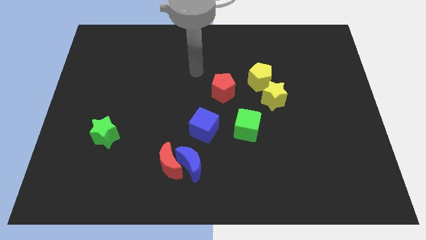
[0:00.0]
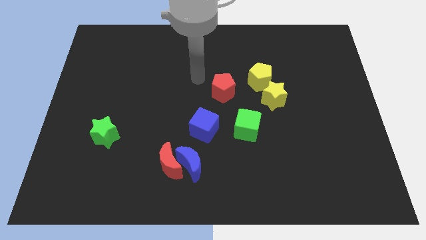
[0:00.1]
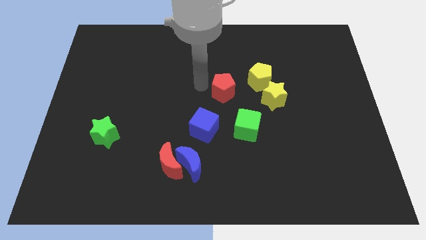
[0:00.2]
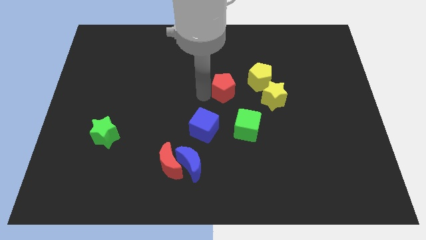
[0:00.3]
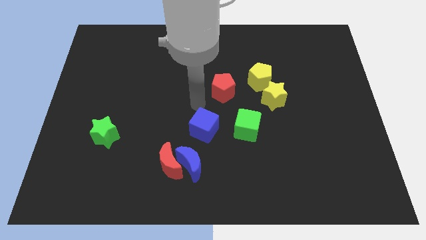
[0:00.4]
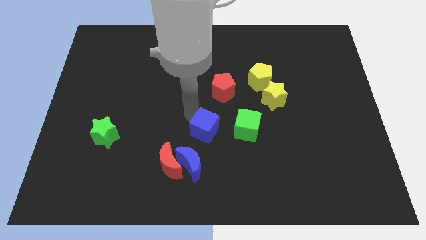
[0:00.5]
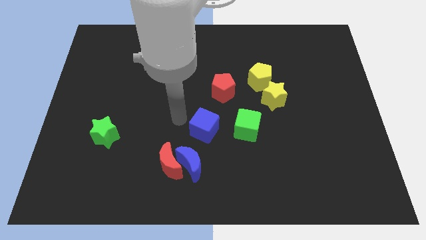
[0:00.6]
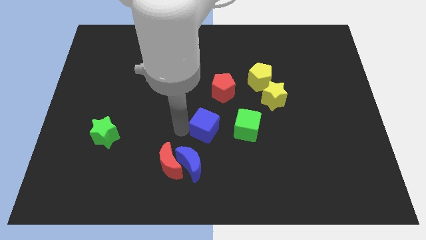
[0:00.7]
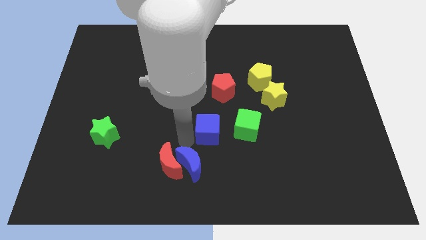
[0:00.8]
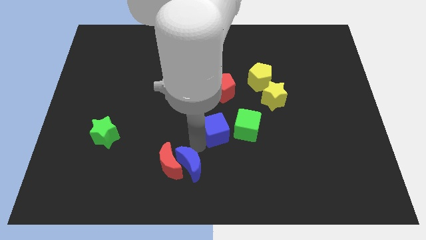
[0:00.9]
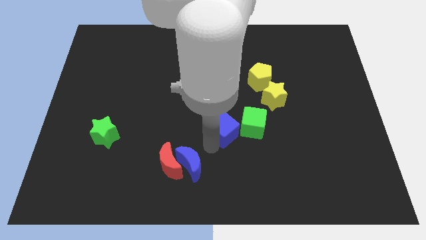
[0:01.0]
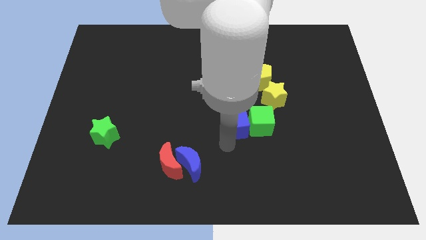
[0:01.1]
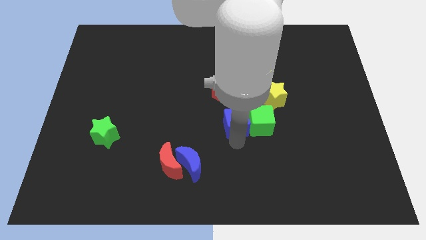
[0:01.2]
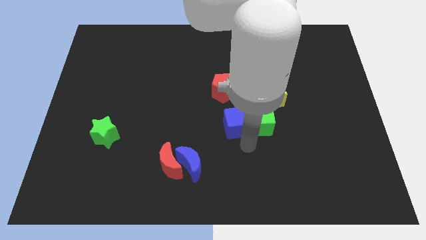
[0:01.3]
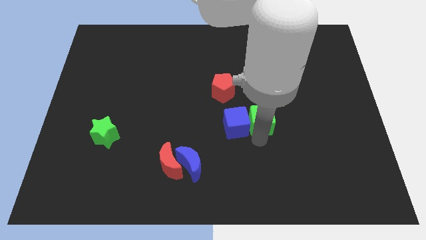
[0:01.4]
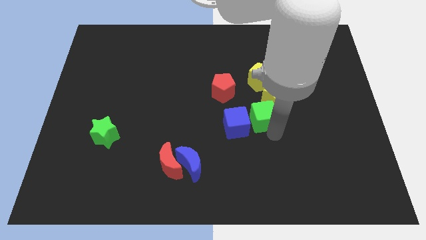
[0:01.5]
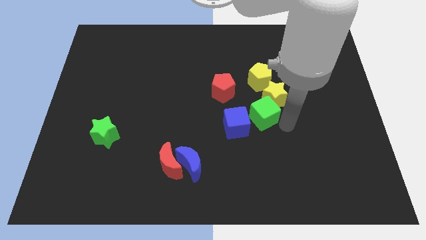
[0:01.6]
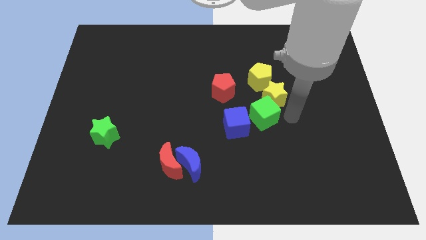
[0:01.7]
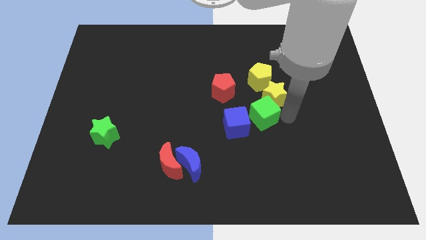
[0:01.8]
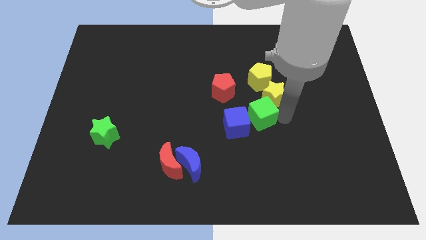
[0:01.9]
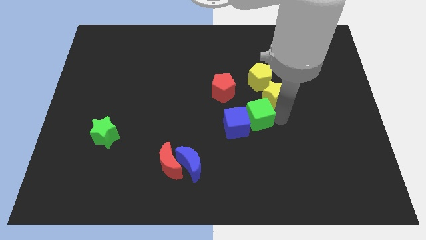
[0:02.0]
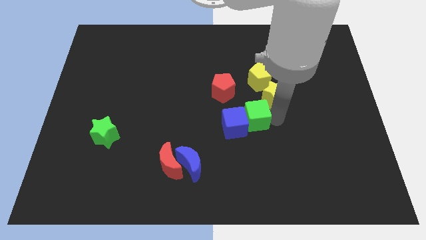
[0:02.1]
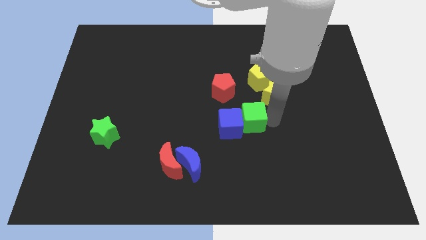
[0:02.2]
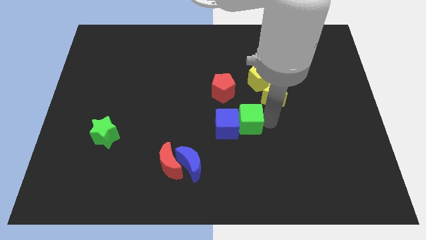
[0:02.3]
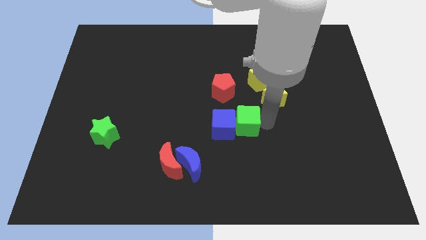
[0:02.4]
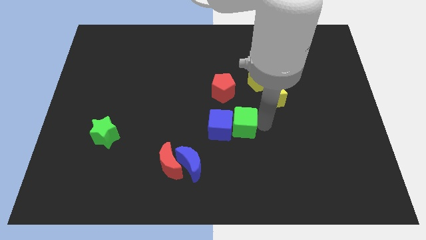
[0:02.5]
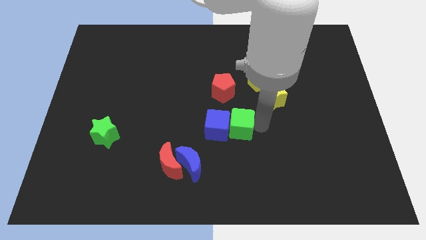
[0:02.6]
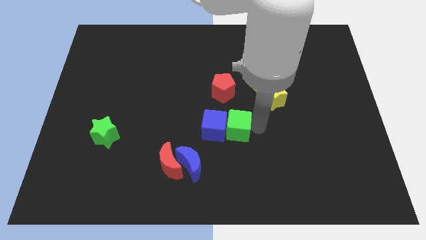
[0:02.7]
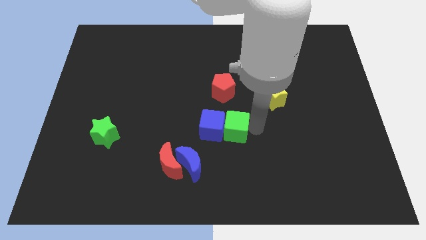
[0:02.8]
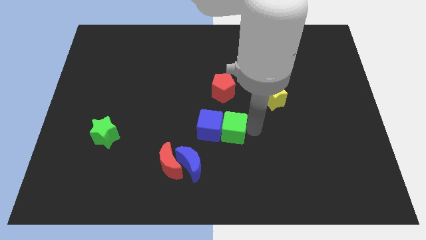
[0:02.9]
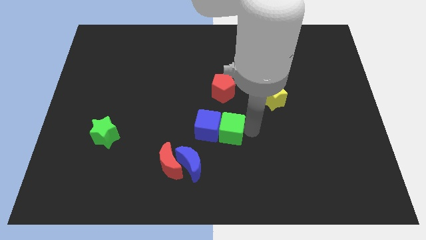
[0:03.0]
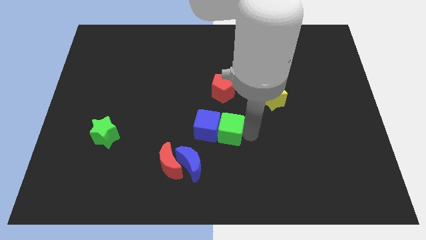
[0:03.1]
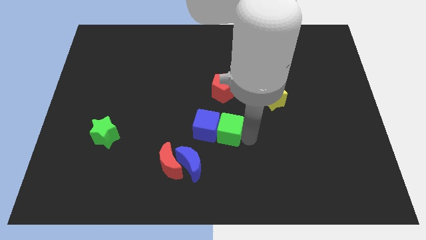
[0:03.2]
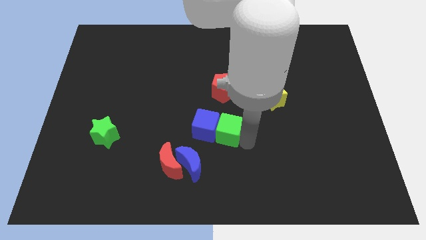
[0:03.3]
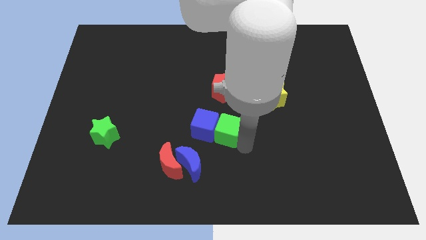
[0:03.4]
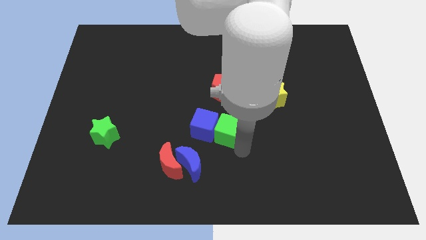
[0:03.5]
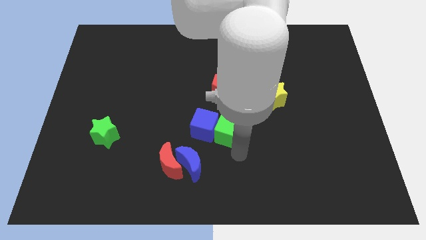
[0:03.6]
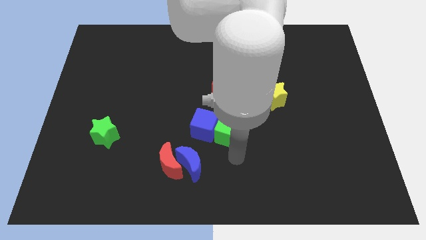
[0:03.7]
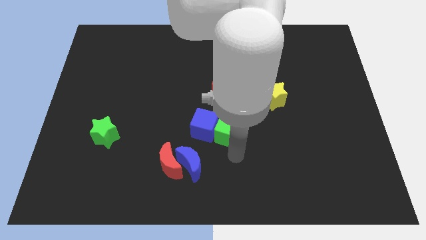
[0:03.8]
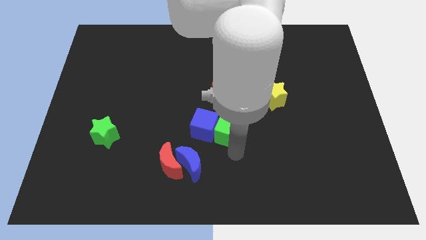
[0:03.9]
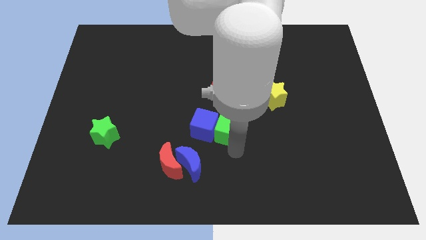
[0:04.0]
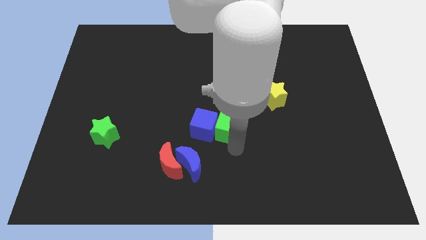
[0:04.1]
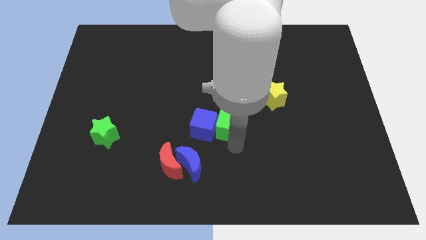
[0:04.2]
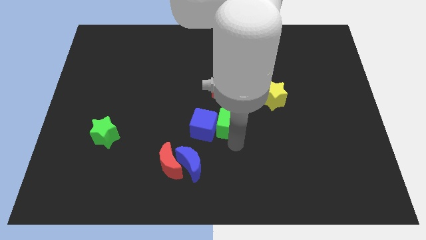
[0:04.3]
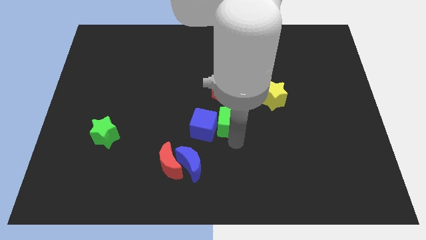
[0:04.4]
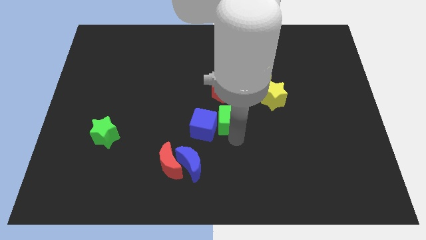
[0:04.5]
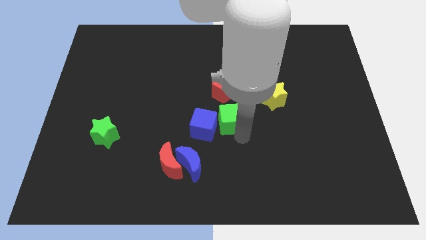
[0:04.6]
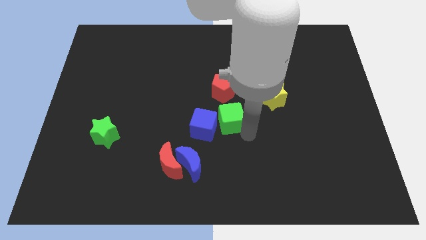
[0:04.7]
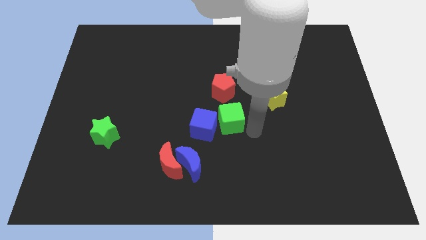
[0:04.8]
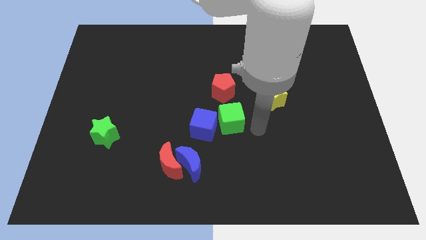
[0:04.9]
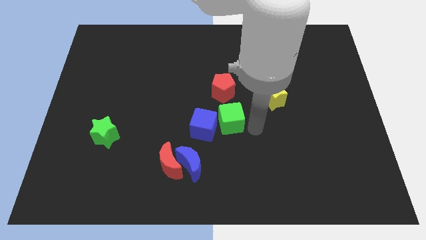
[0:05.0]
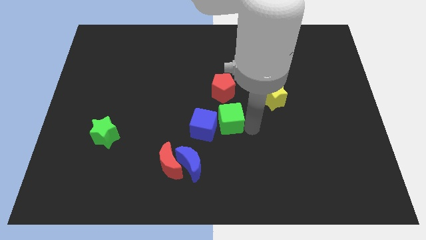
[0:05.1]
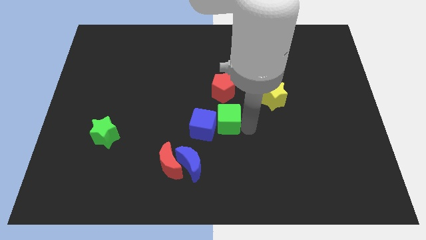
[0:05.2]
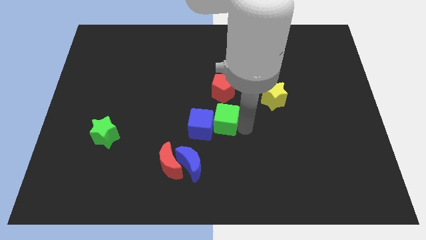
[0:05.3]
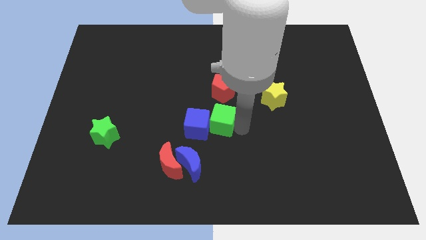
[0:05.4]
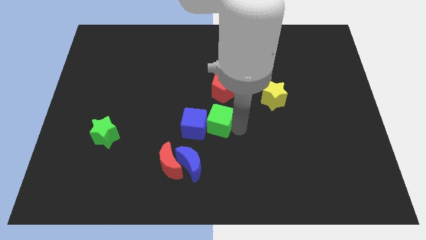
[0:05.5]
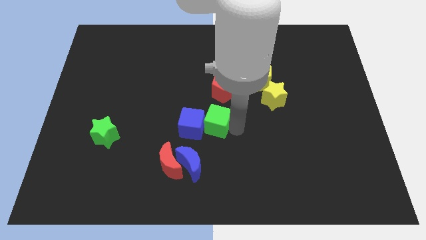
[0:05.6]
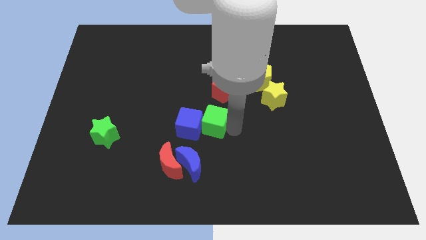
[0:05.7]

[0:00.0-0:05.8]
slide the green cube a little bit left

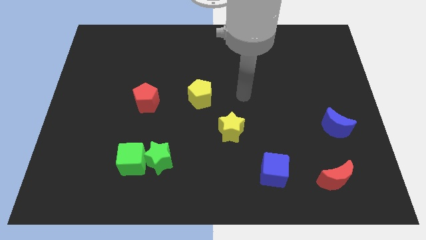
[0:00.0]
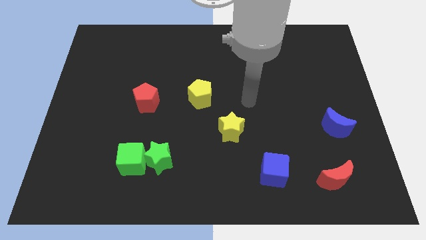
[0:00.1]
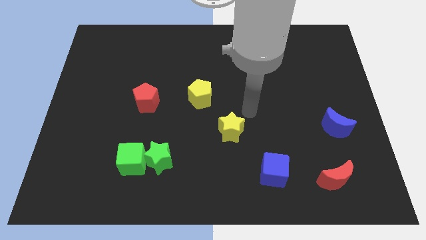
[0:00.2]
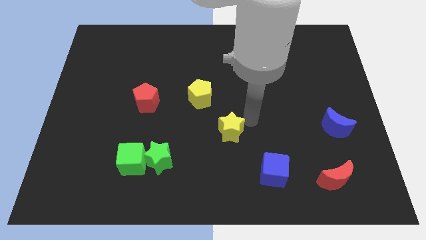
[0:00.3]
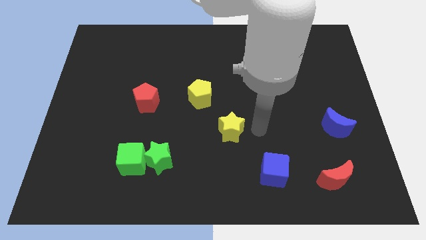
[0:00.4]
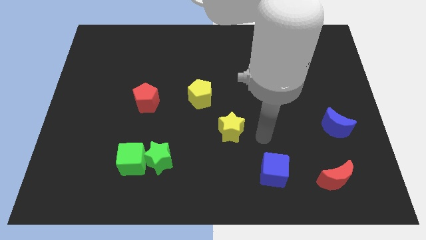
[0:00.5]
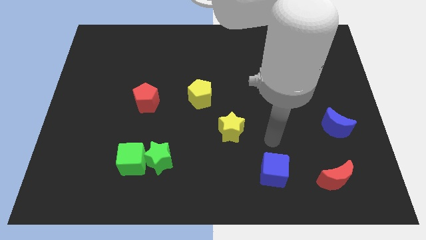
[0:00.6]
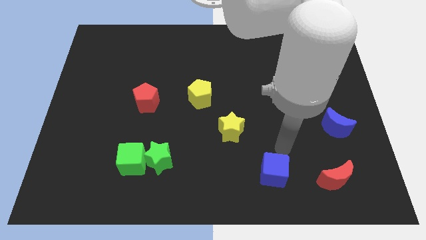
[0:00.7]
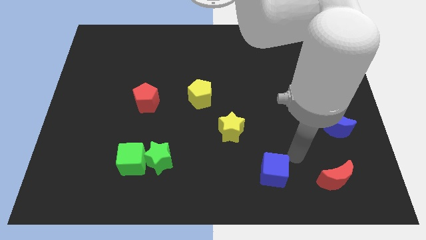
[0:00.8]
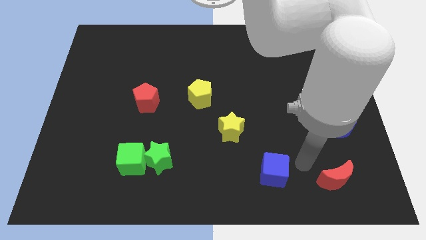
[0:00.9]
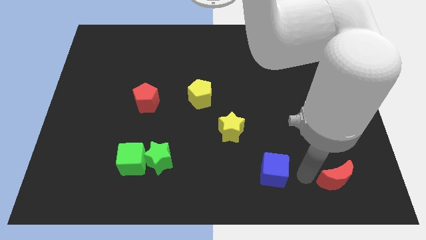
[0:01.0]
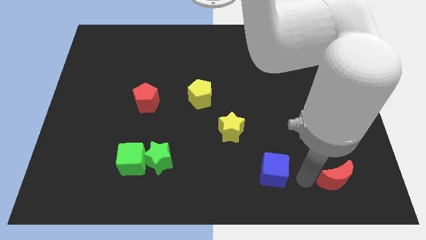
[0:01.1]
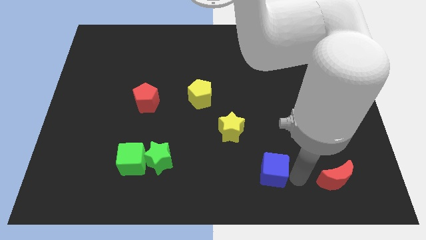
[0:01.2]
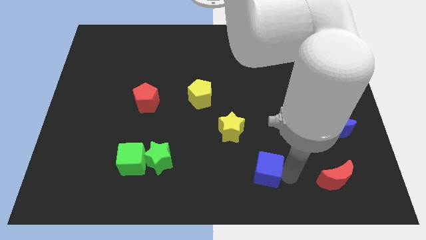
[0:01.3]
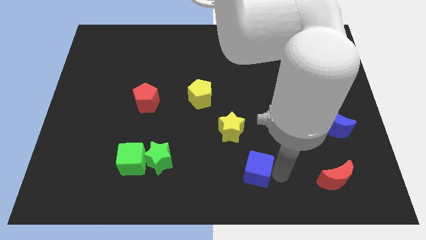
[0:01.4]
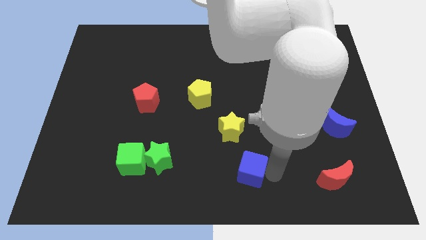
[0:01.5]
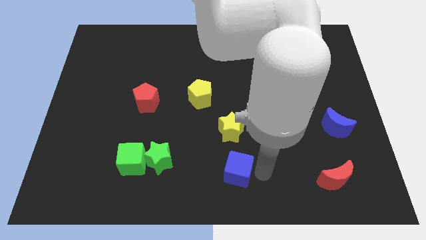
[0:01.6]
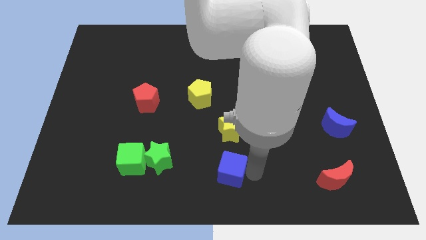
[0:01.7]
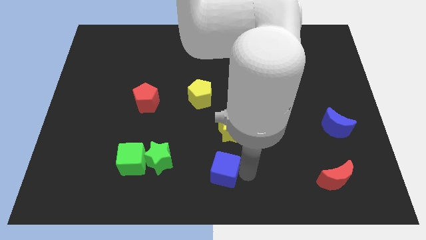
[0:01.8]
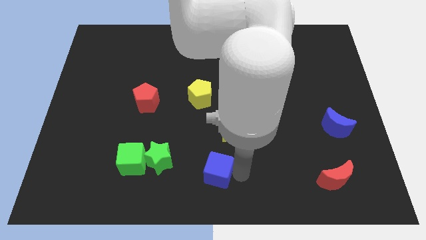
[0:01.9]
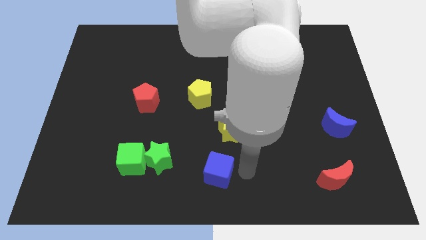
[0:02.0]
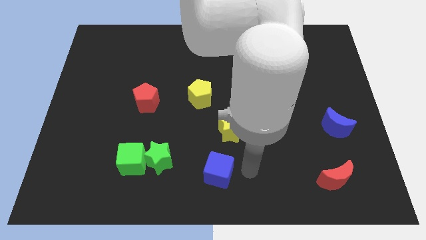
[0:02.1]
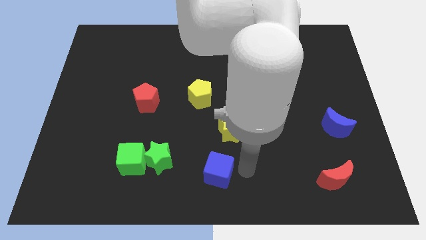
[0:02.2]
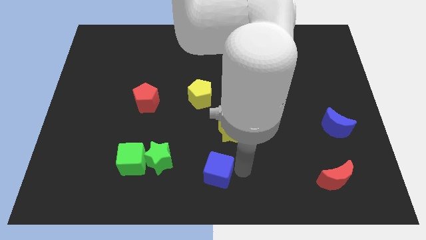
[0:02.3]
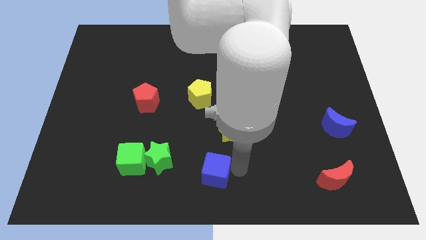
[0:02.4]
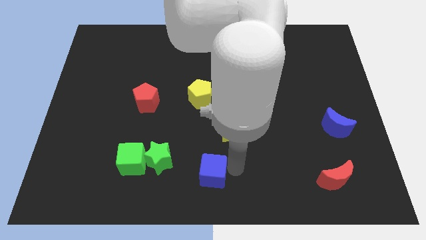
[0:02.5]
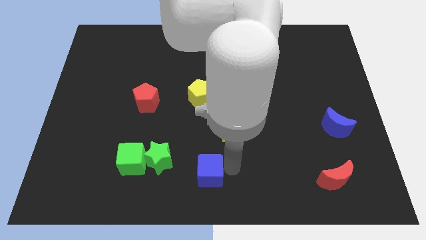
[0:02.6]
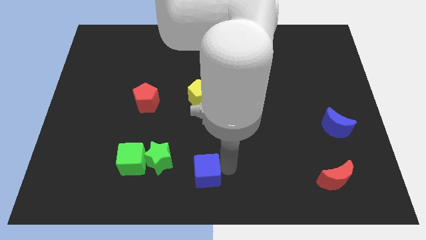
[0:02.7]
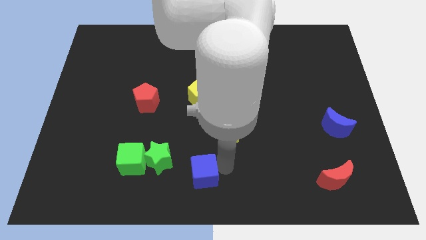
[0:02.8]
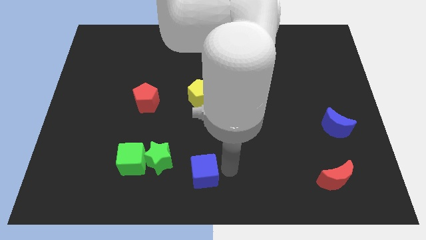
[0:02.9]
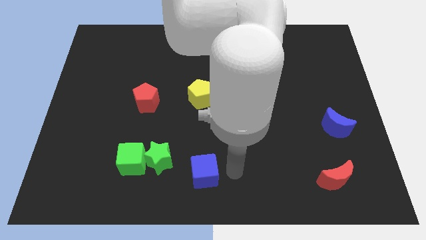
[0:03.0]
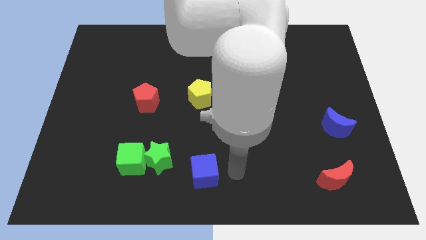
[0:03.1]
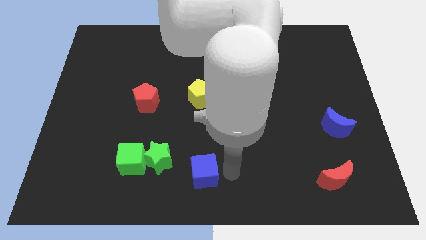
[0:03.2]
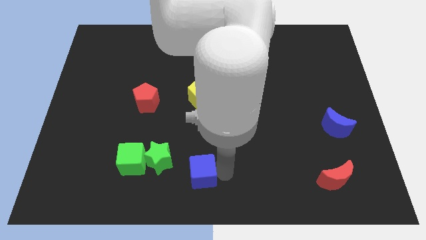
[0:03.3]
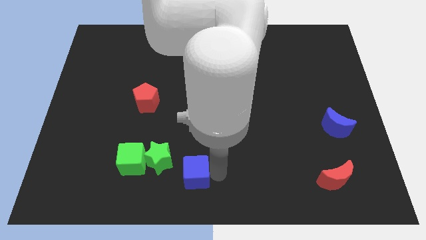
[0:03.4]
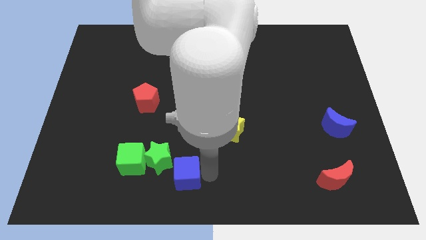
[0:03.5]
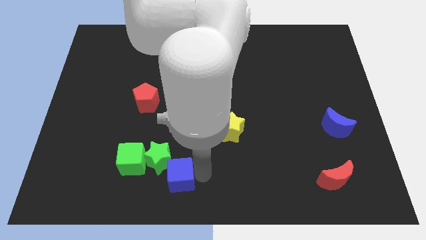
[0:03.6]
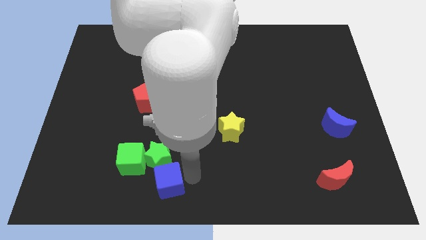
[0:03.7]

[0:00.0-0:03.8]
slide the blue cube to the left
